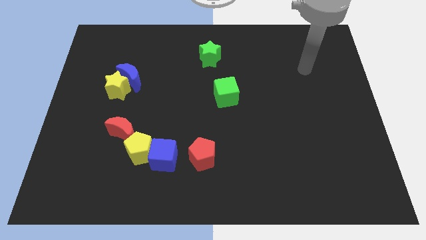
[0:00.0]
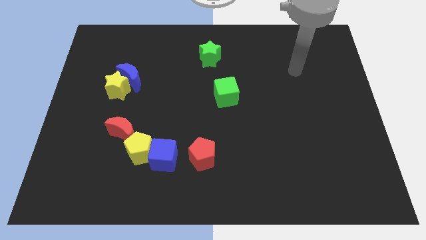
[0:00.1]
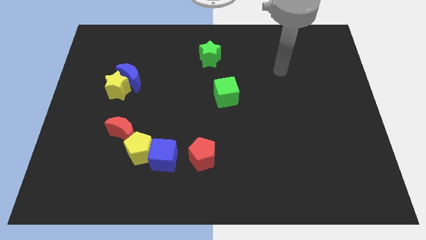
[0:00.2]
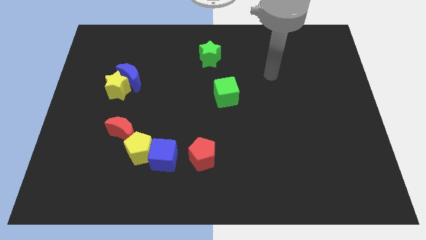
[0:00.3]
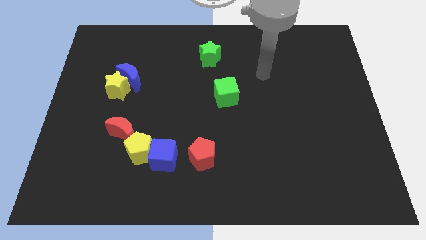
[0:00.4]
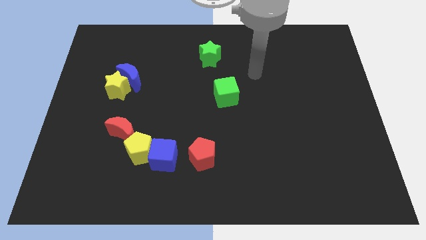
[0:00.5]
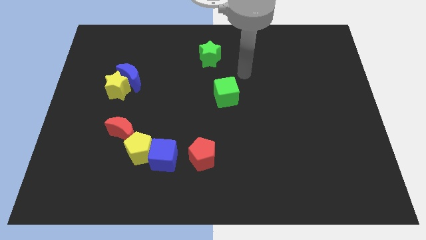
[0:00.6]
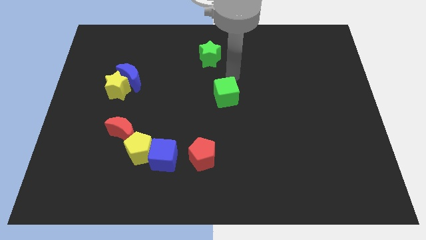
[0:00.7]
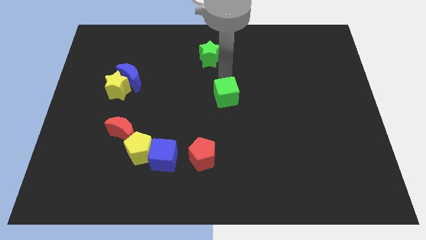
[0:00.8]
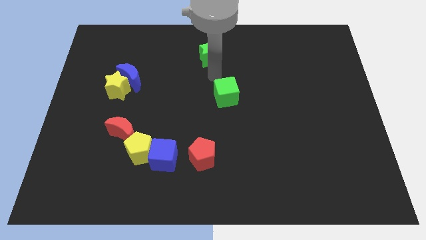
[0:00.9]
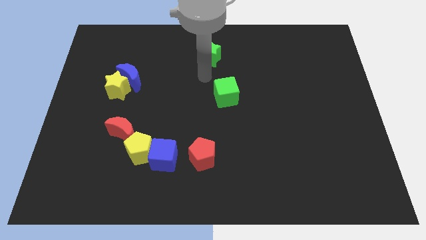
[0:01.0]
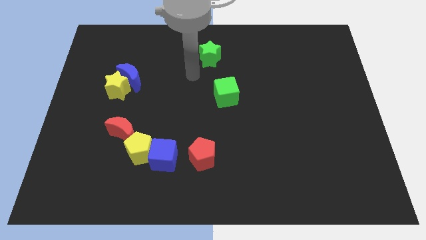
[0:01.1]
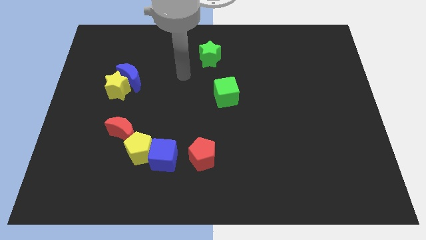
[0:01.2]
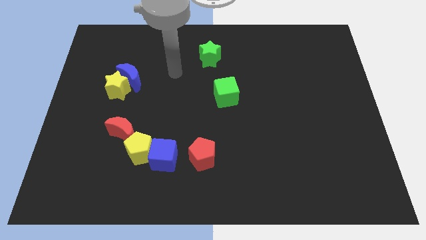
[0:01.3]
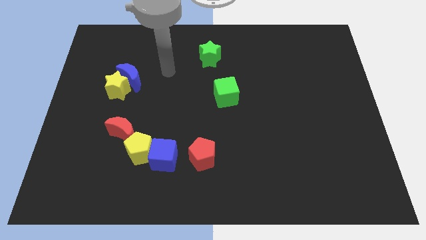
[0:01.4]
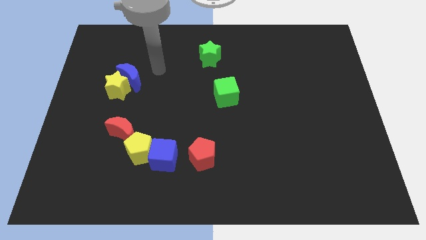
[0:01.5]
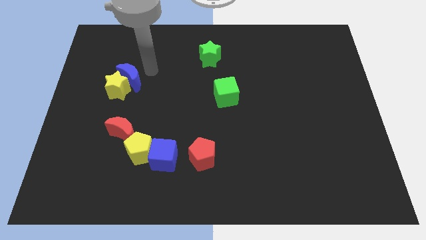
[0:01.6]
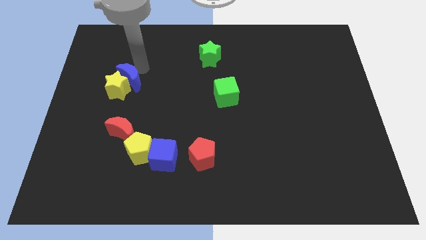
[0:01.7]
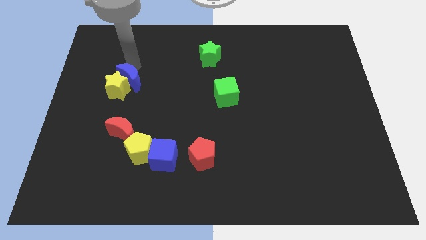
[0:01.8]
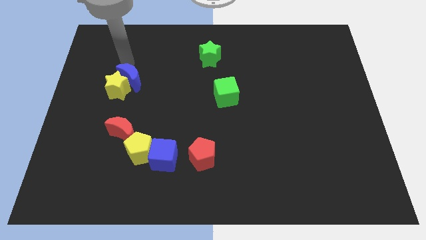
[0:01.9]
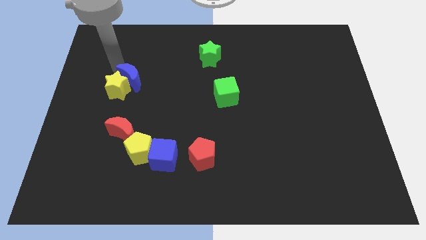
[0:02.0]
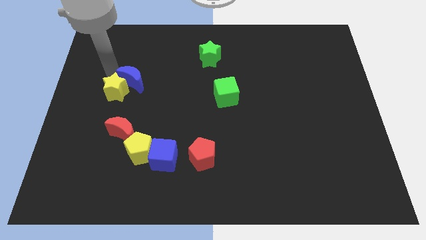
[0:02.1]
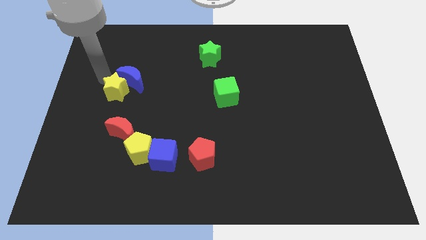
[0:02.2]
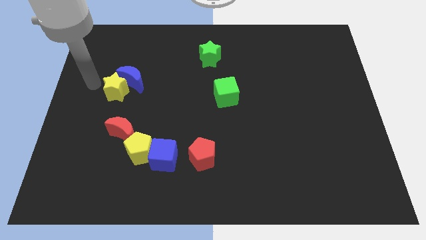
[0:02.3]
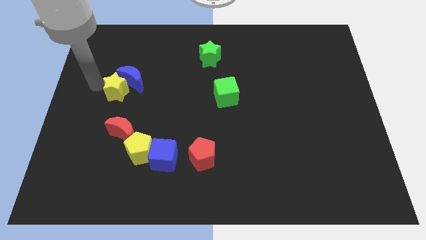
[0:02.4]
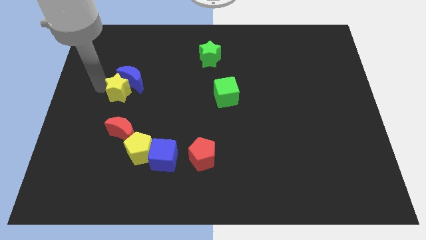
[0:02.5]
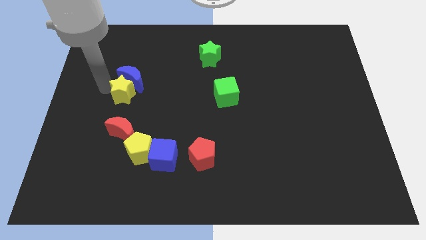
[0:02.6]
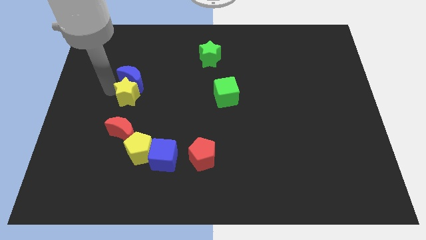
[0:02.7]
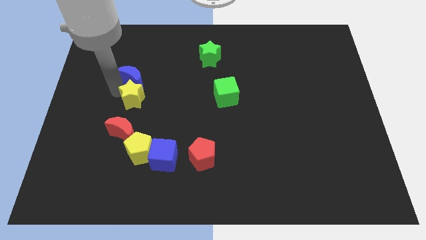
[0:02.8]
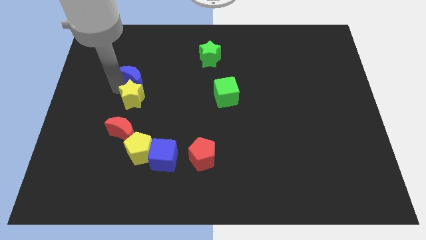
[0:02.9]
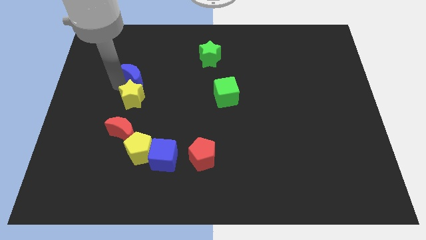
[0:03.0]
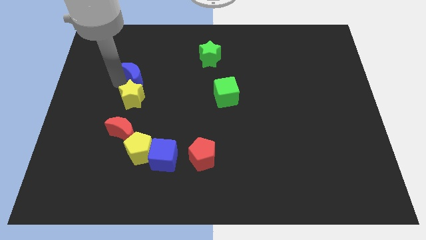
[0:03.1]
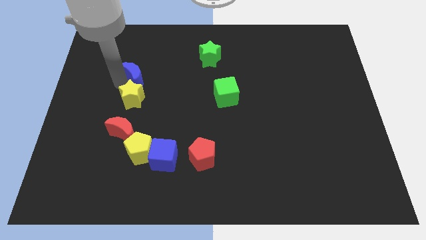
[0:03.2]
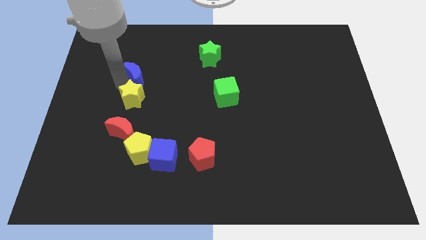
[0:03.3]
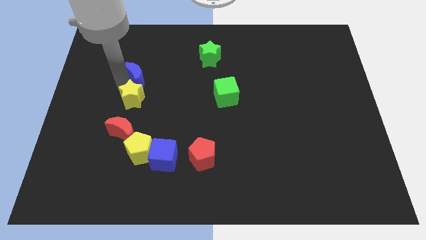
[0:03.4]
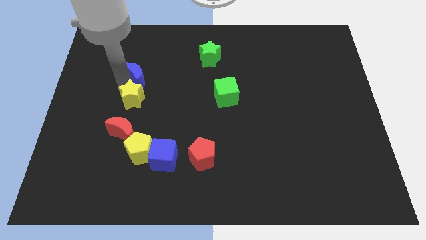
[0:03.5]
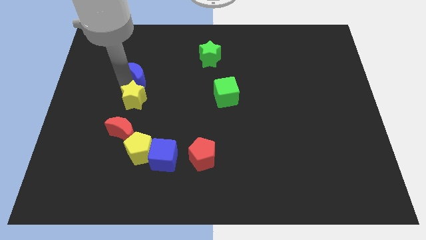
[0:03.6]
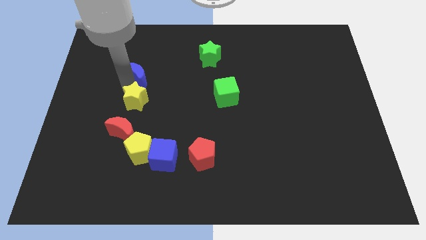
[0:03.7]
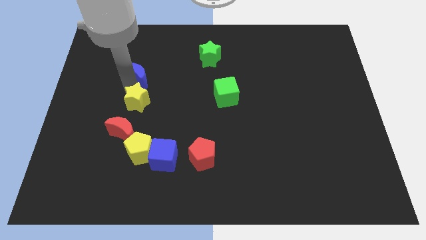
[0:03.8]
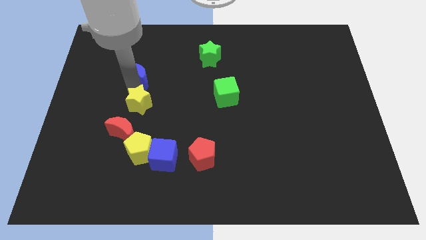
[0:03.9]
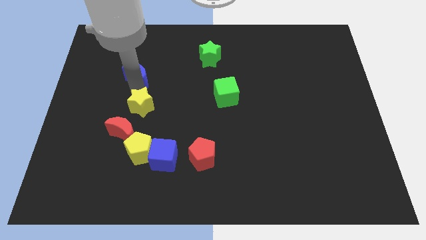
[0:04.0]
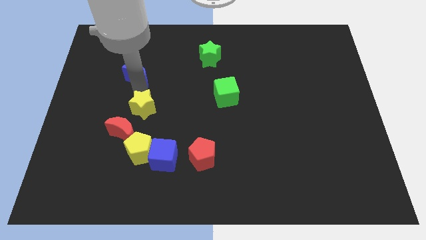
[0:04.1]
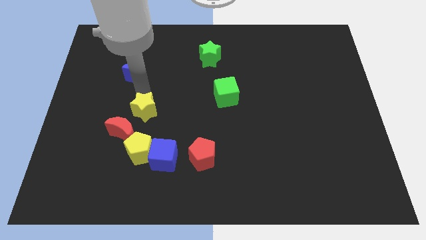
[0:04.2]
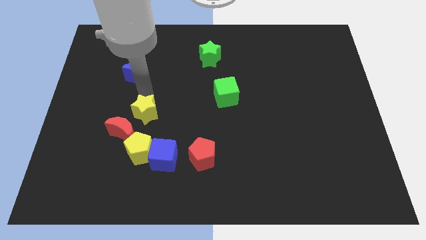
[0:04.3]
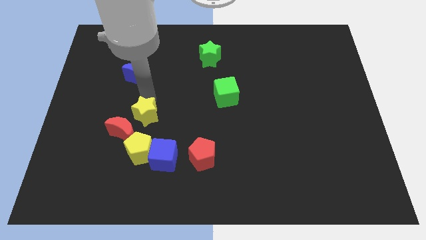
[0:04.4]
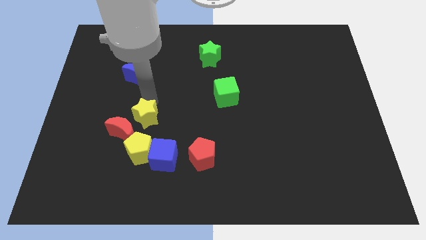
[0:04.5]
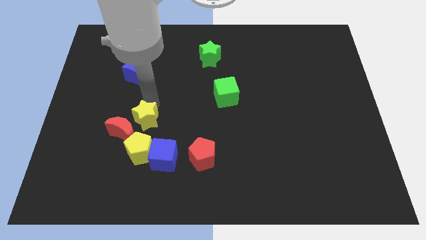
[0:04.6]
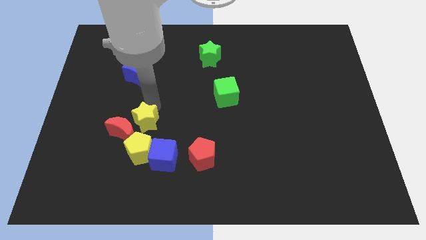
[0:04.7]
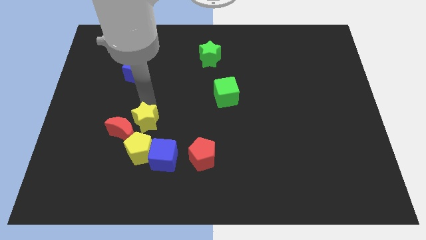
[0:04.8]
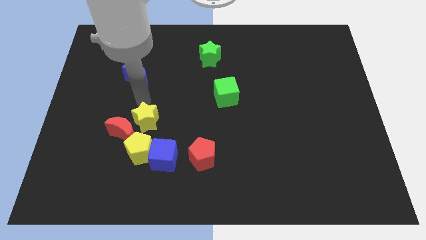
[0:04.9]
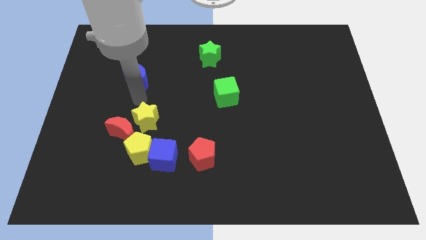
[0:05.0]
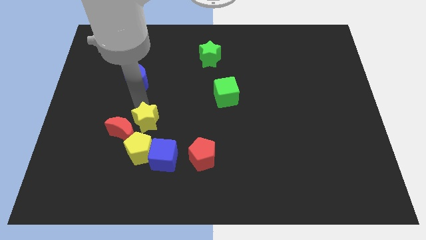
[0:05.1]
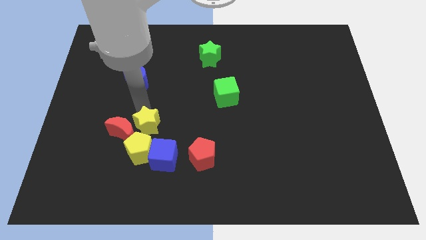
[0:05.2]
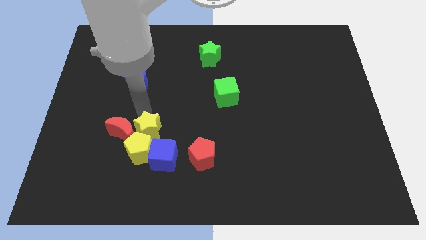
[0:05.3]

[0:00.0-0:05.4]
push the yellow star towards the yellow pentagon

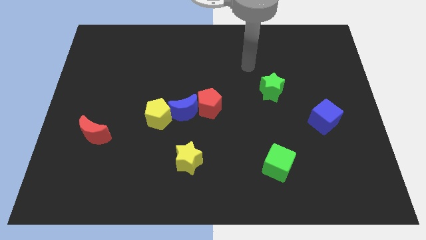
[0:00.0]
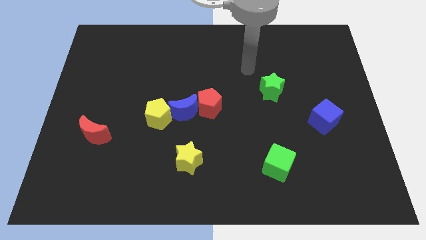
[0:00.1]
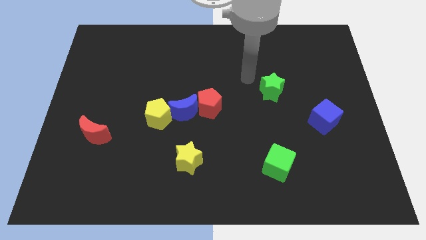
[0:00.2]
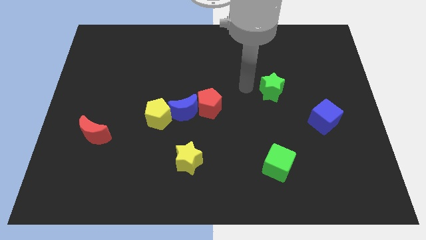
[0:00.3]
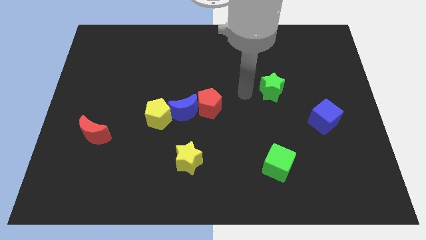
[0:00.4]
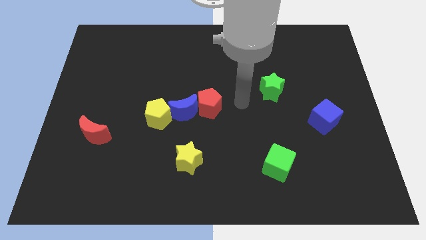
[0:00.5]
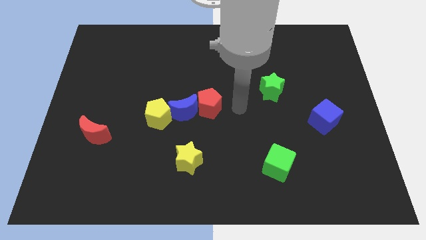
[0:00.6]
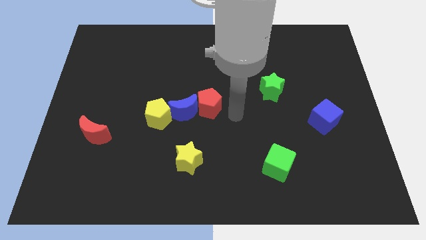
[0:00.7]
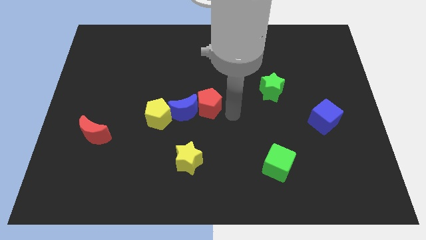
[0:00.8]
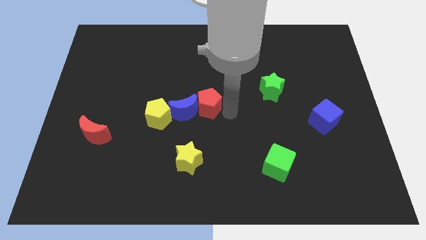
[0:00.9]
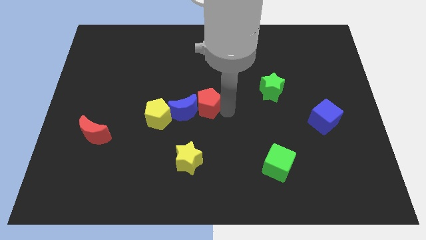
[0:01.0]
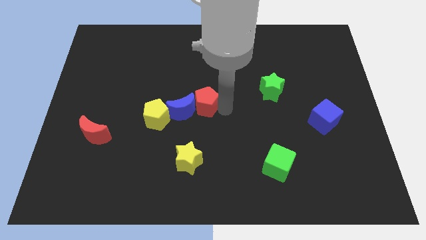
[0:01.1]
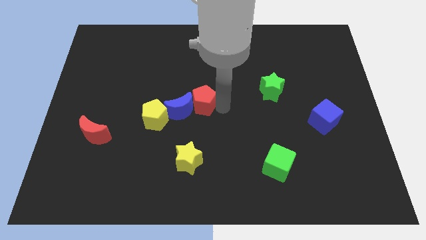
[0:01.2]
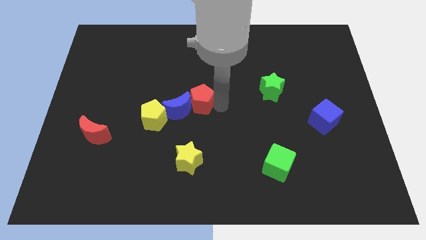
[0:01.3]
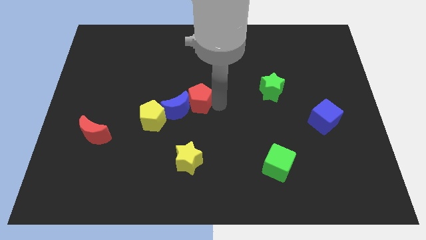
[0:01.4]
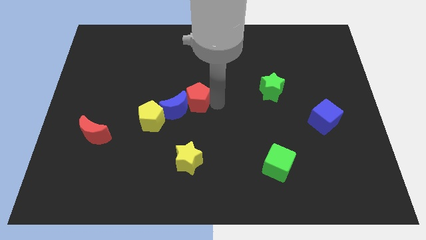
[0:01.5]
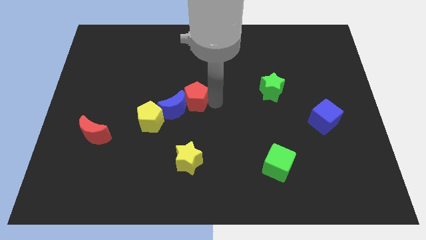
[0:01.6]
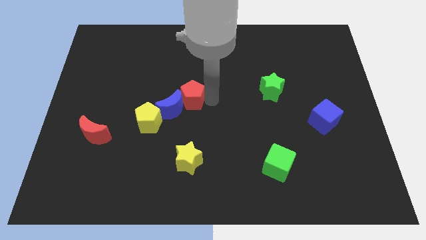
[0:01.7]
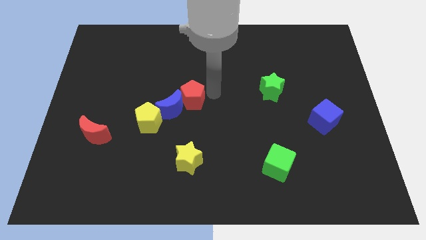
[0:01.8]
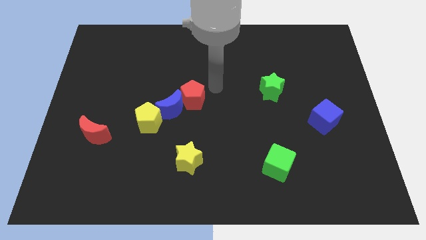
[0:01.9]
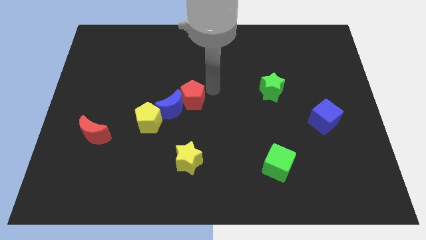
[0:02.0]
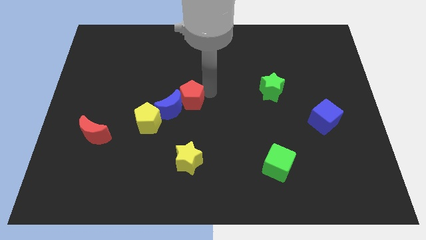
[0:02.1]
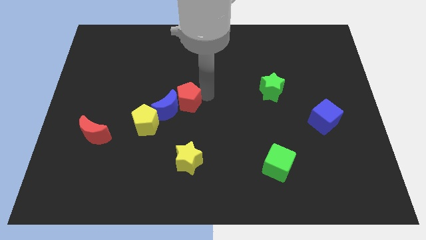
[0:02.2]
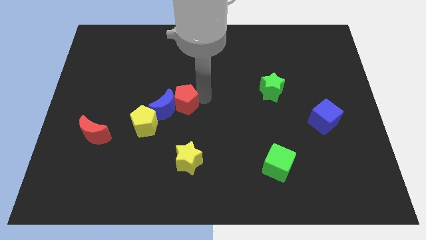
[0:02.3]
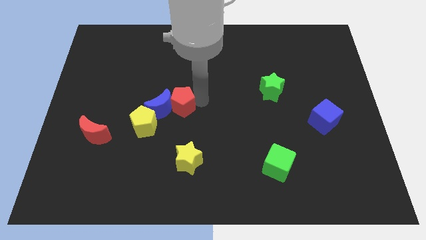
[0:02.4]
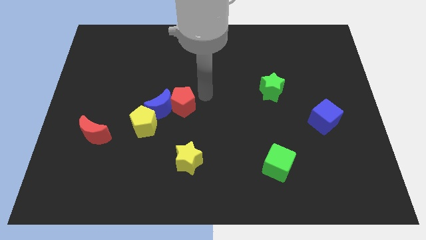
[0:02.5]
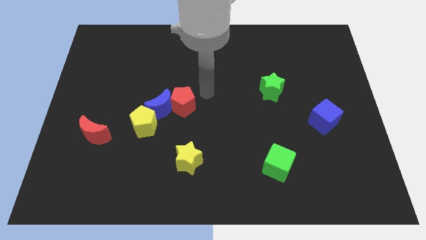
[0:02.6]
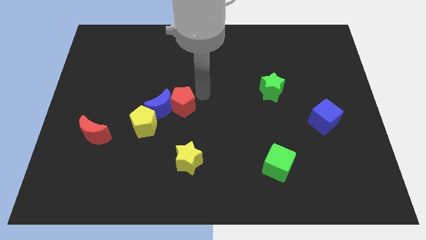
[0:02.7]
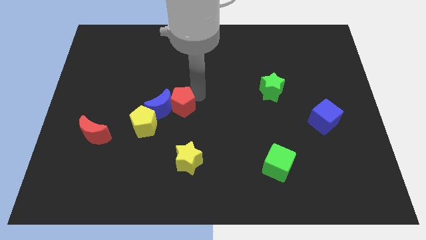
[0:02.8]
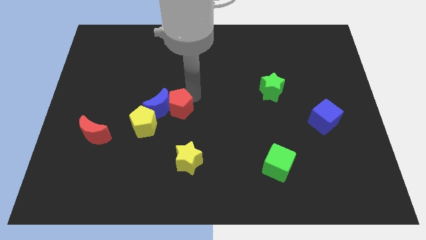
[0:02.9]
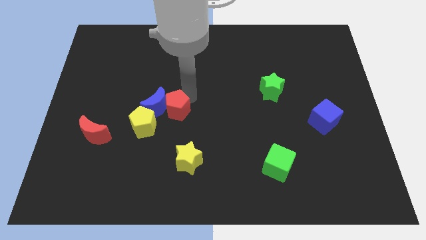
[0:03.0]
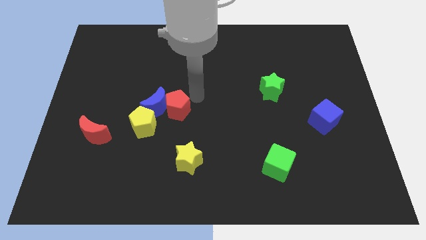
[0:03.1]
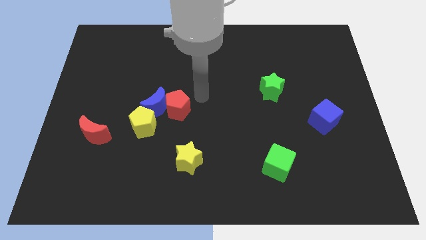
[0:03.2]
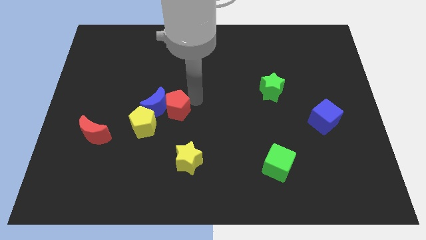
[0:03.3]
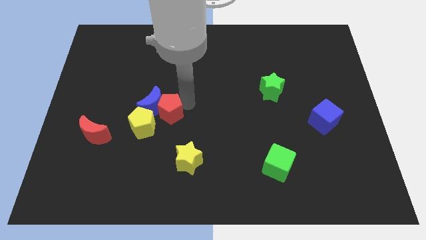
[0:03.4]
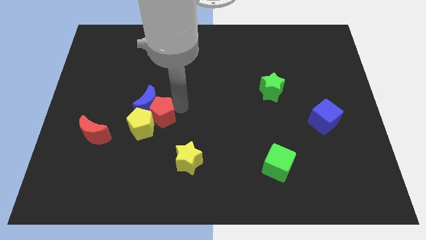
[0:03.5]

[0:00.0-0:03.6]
slide the red pentagon next to the yellow pentagon
